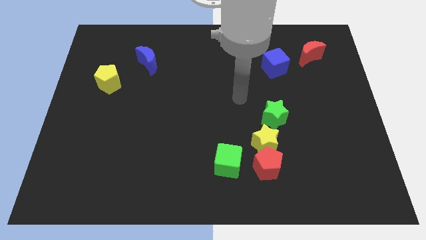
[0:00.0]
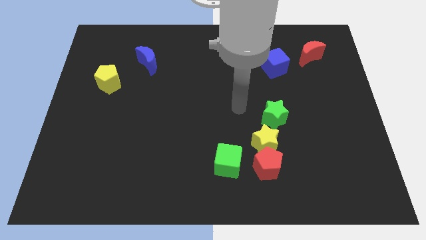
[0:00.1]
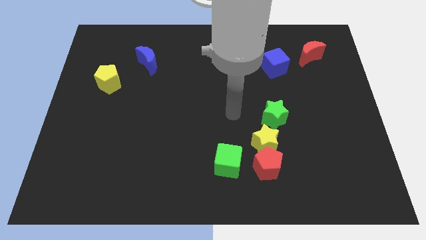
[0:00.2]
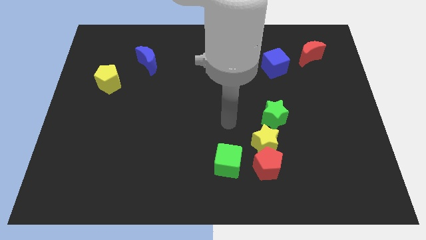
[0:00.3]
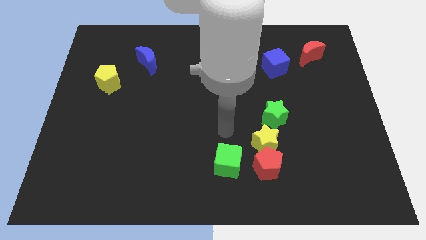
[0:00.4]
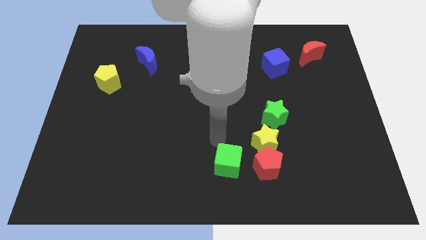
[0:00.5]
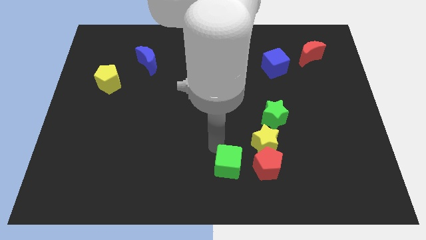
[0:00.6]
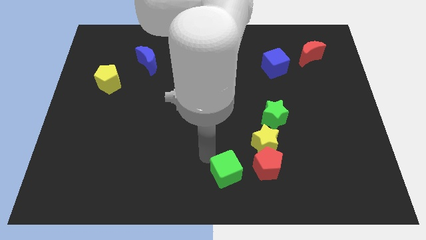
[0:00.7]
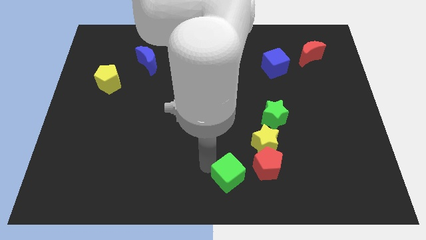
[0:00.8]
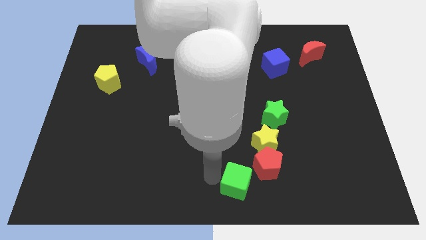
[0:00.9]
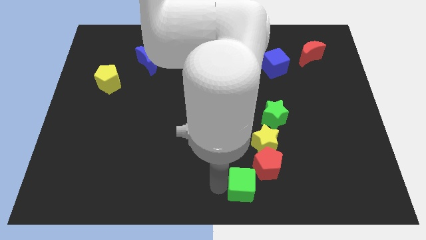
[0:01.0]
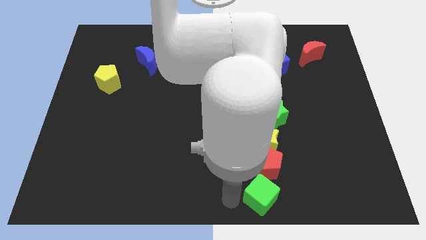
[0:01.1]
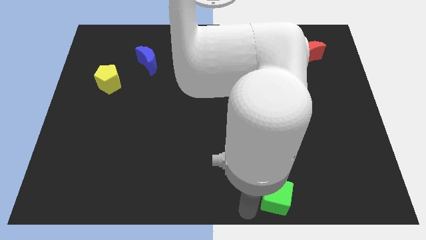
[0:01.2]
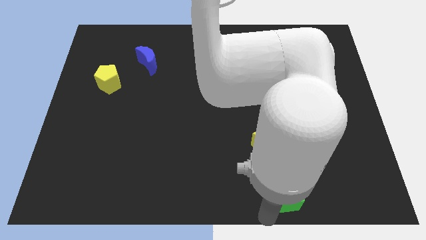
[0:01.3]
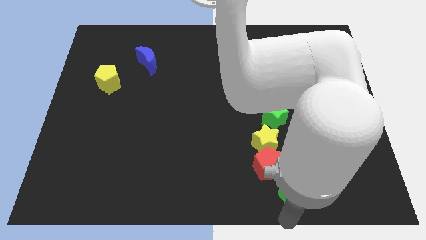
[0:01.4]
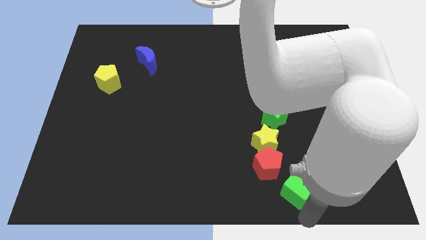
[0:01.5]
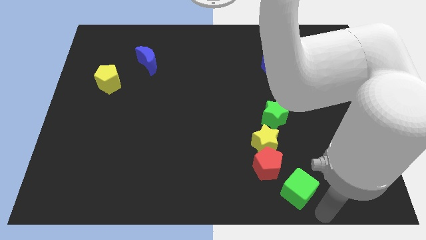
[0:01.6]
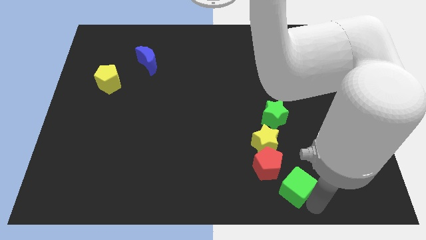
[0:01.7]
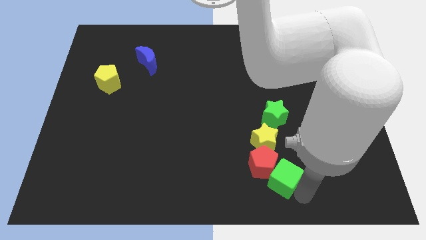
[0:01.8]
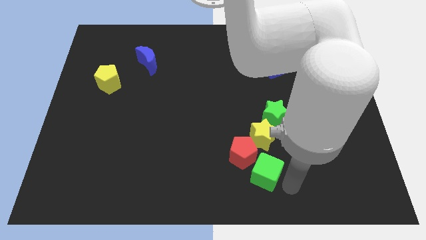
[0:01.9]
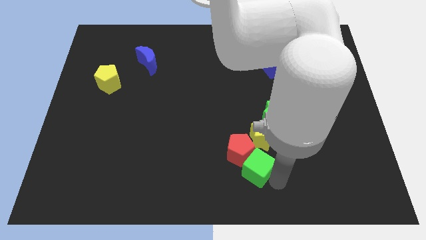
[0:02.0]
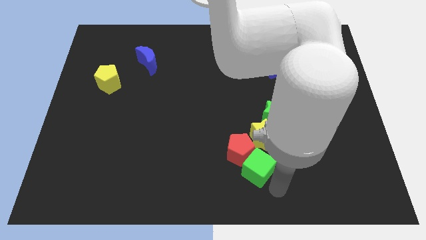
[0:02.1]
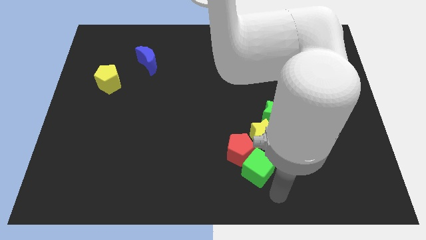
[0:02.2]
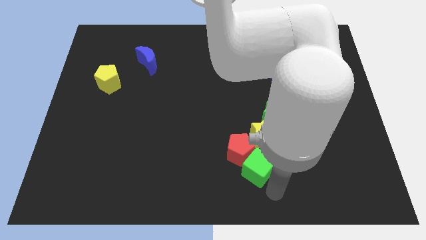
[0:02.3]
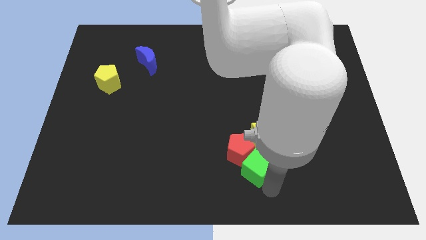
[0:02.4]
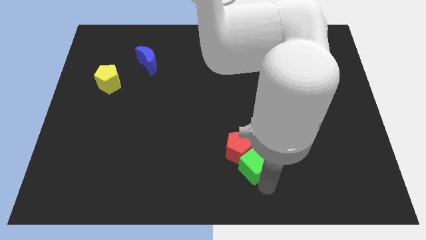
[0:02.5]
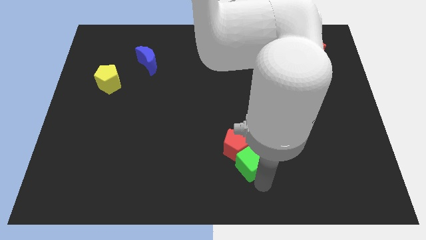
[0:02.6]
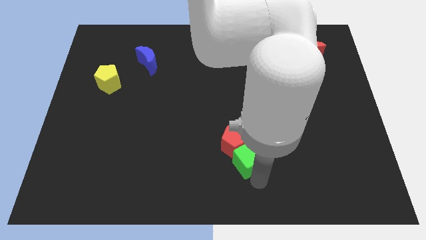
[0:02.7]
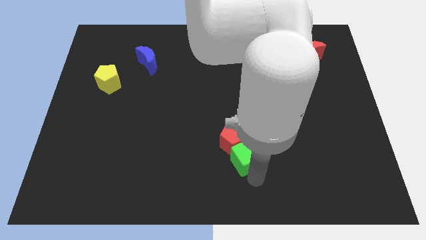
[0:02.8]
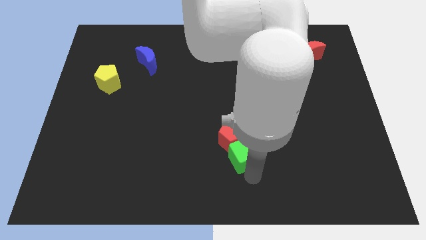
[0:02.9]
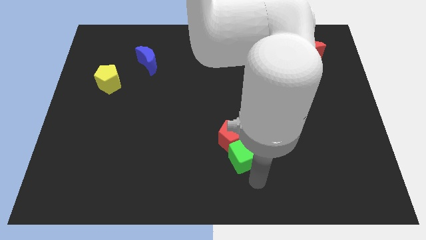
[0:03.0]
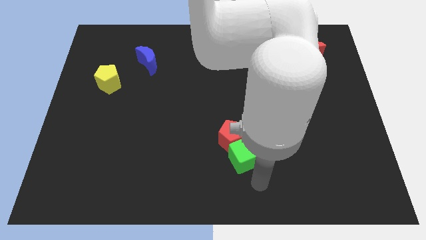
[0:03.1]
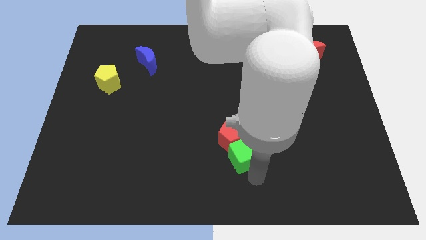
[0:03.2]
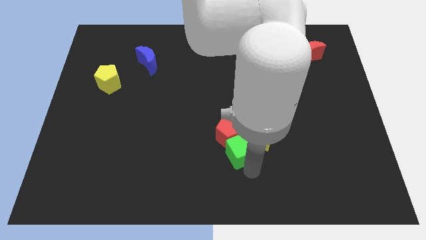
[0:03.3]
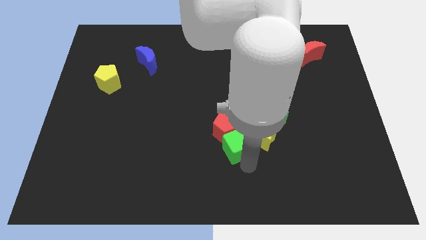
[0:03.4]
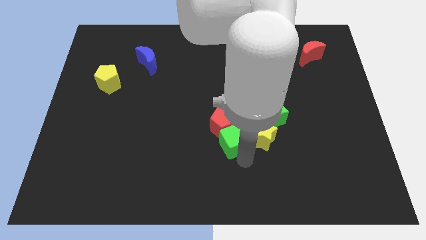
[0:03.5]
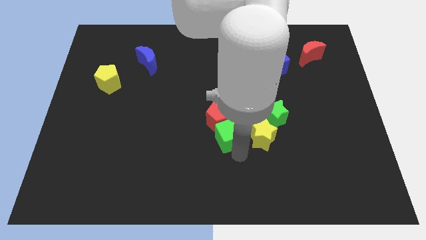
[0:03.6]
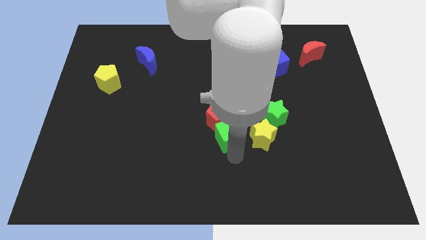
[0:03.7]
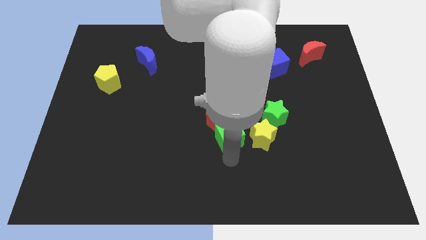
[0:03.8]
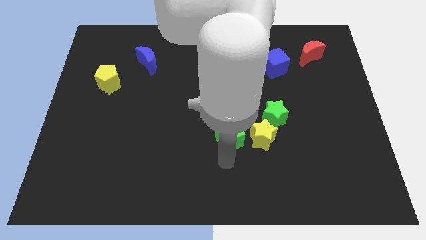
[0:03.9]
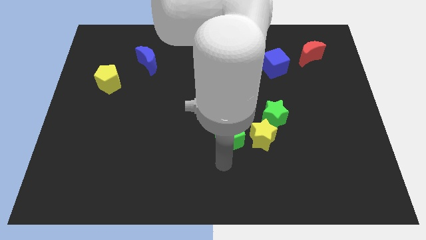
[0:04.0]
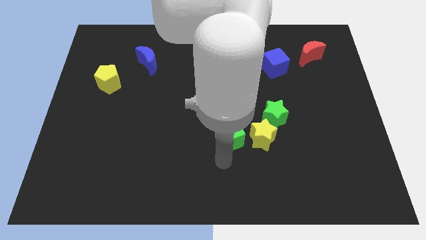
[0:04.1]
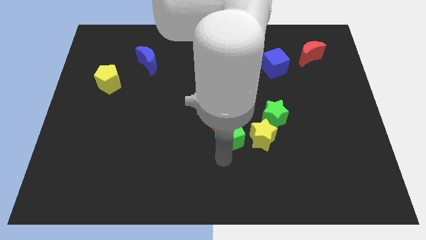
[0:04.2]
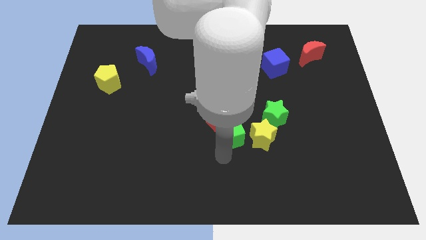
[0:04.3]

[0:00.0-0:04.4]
move the green cube upwards a little

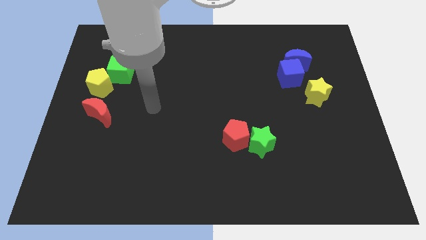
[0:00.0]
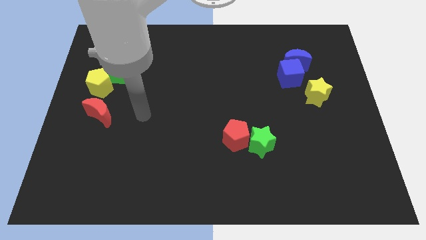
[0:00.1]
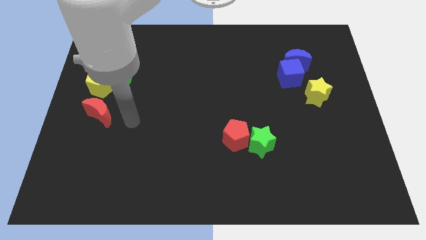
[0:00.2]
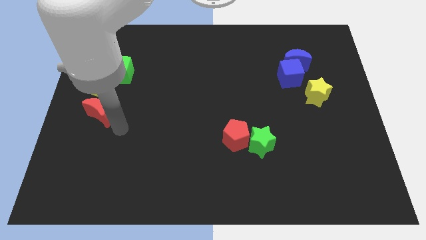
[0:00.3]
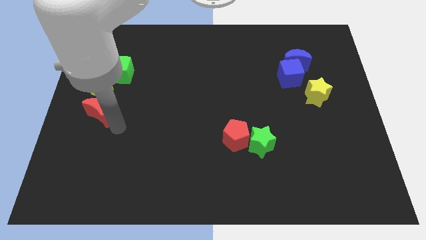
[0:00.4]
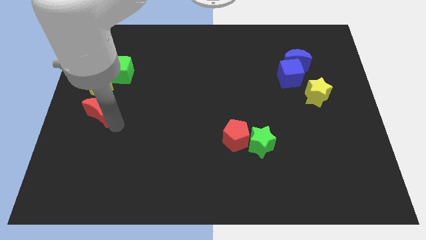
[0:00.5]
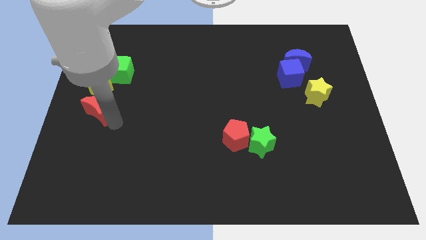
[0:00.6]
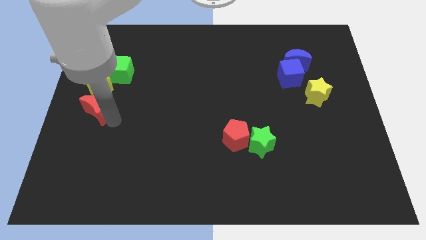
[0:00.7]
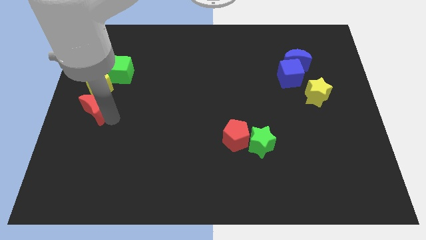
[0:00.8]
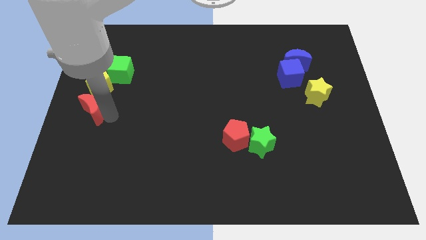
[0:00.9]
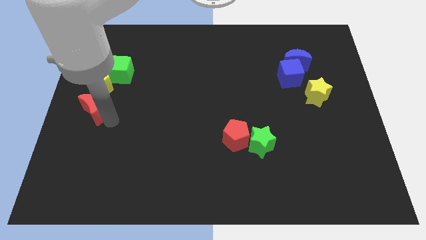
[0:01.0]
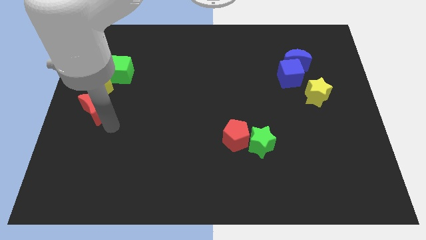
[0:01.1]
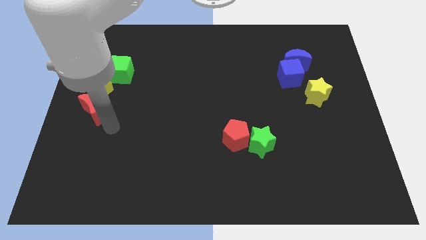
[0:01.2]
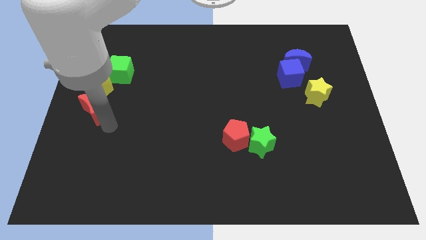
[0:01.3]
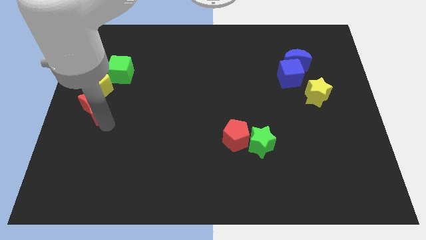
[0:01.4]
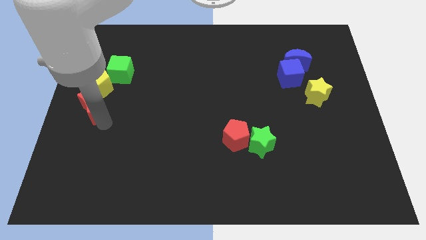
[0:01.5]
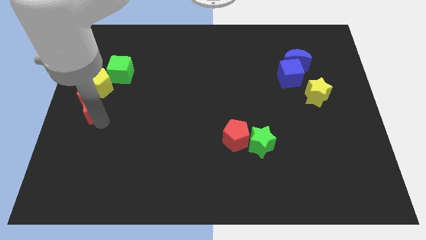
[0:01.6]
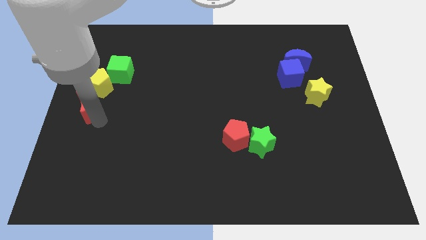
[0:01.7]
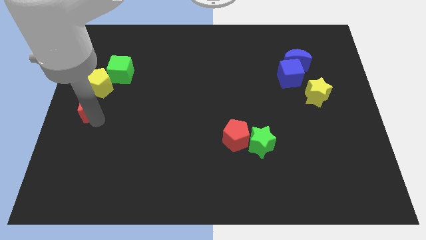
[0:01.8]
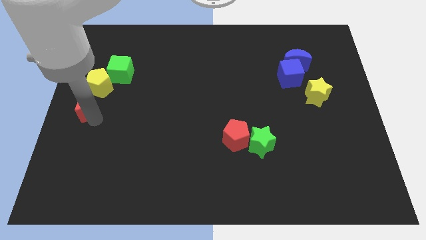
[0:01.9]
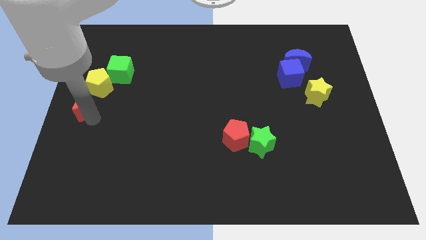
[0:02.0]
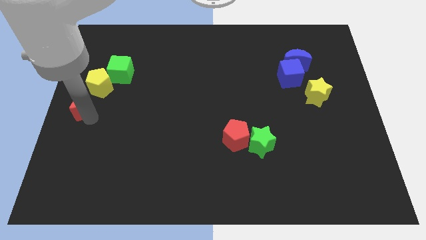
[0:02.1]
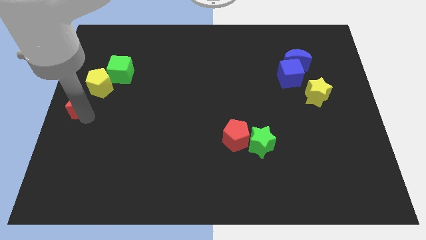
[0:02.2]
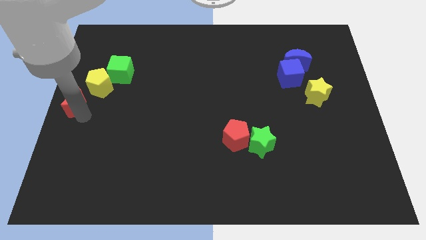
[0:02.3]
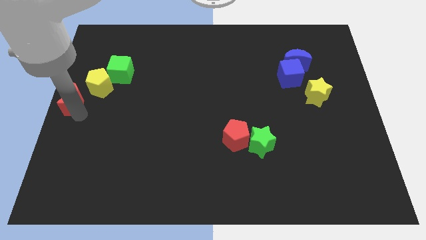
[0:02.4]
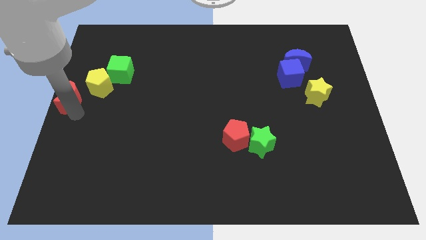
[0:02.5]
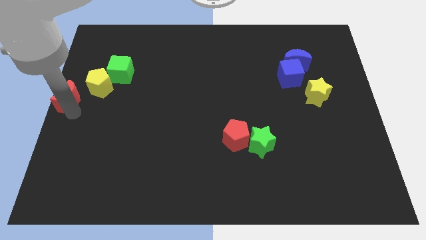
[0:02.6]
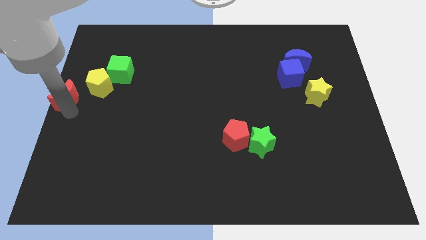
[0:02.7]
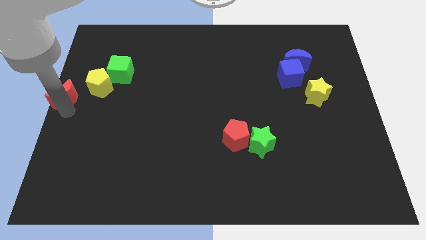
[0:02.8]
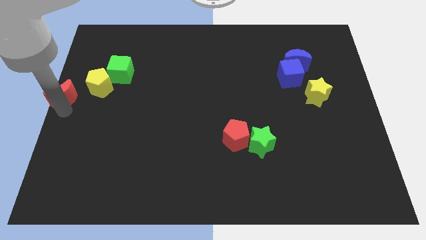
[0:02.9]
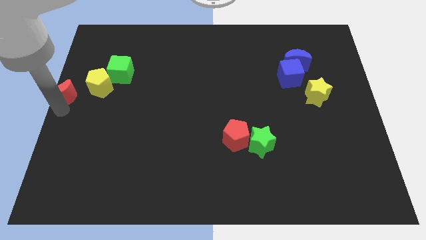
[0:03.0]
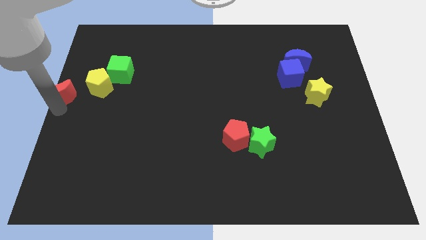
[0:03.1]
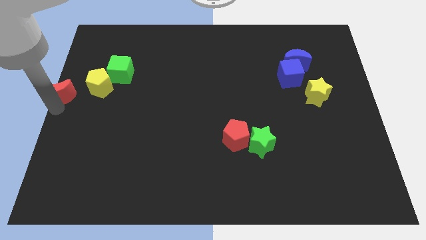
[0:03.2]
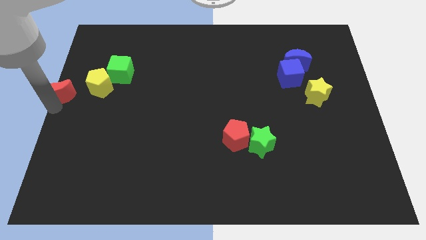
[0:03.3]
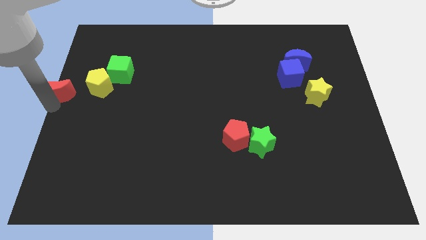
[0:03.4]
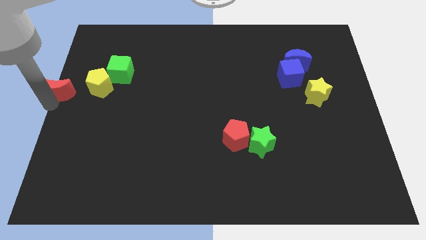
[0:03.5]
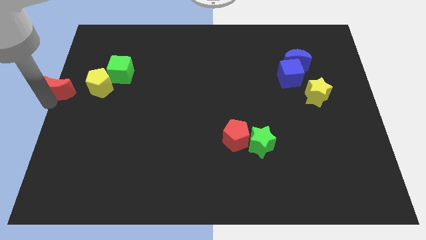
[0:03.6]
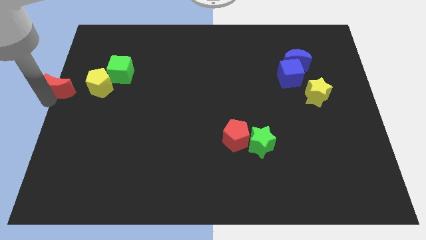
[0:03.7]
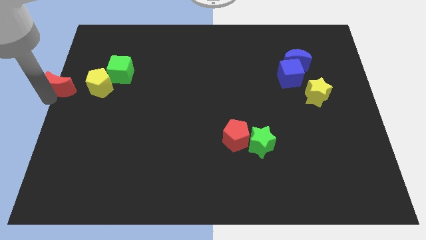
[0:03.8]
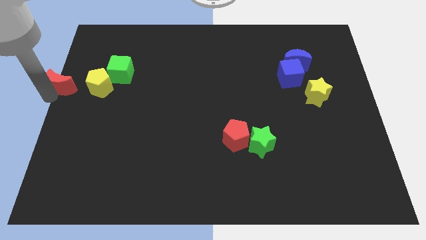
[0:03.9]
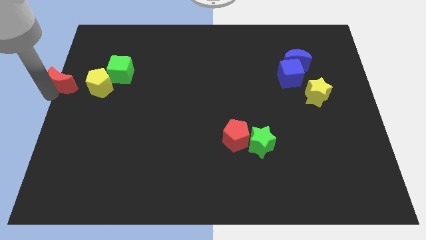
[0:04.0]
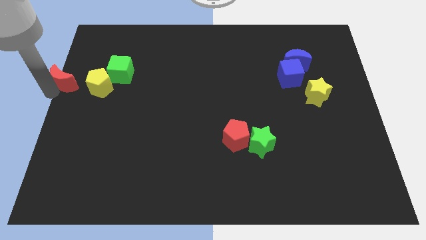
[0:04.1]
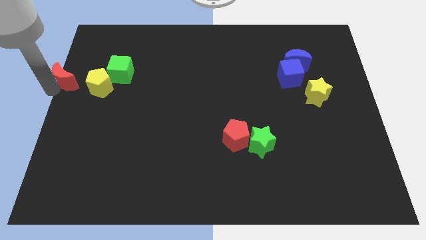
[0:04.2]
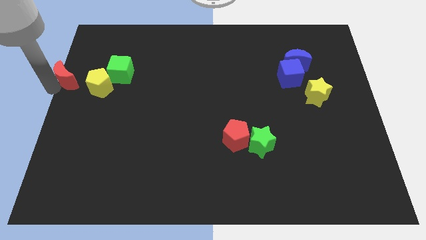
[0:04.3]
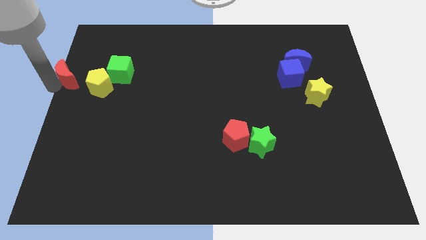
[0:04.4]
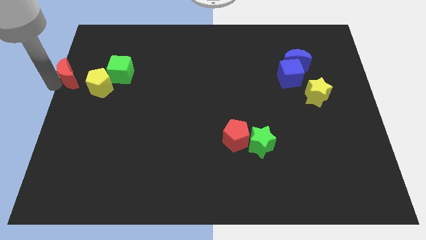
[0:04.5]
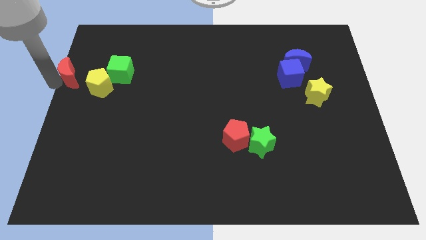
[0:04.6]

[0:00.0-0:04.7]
slide the red moon up somewhat
